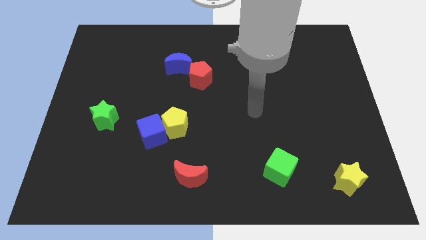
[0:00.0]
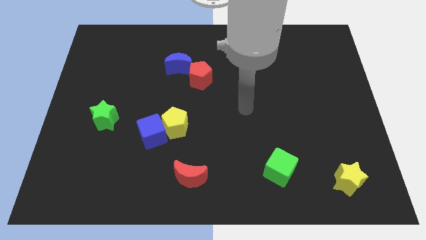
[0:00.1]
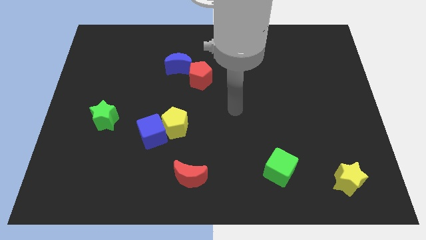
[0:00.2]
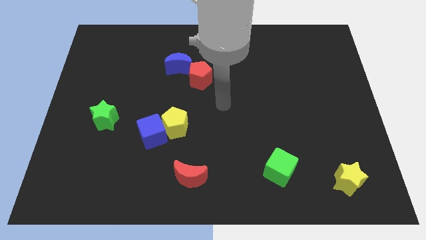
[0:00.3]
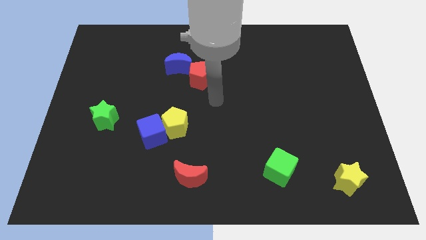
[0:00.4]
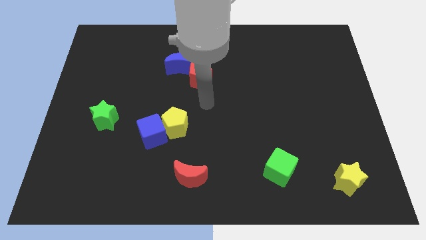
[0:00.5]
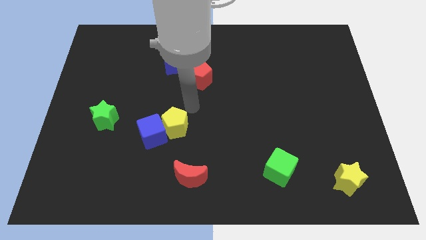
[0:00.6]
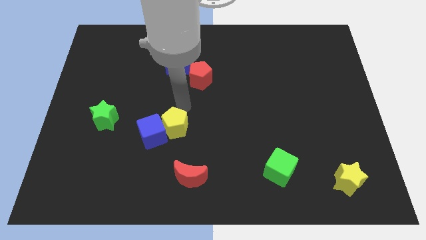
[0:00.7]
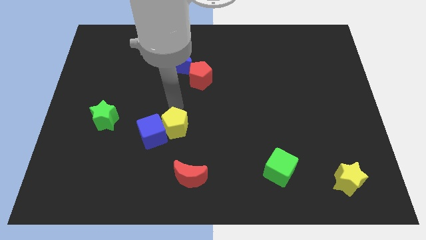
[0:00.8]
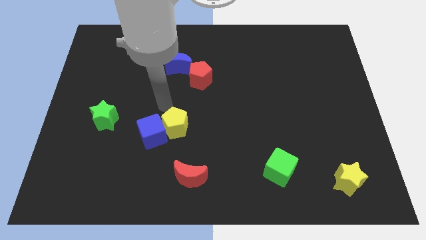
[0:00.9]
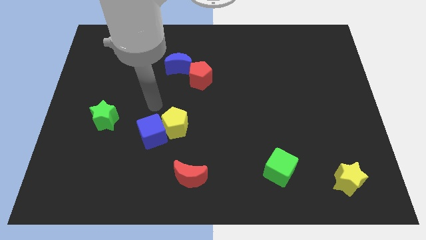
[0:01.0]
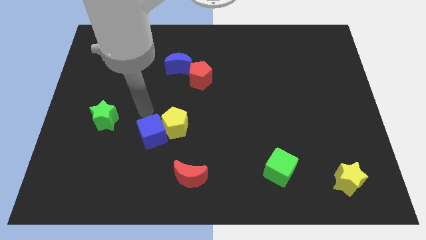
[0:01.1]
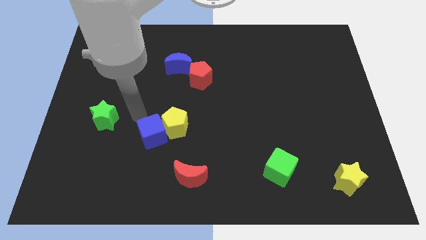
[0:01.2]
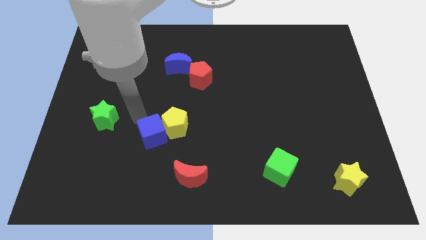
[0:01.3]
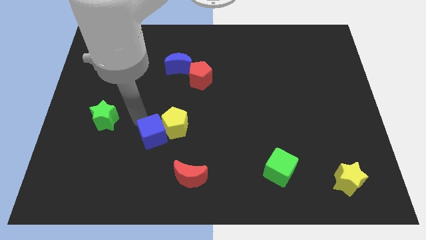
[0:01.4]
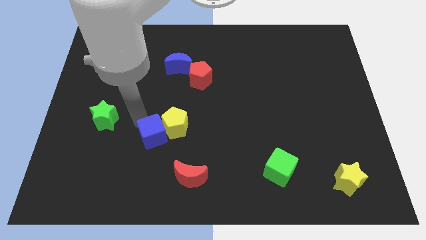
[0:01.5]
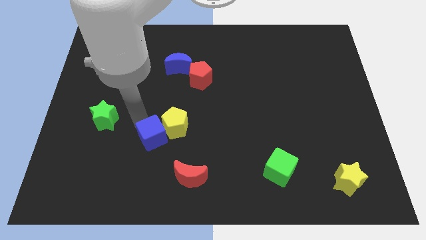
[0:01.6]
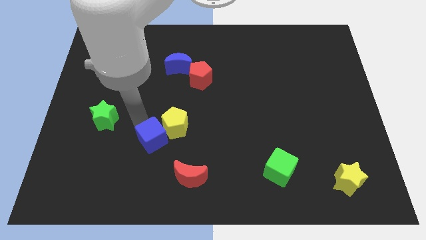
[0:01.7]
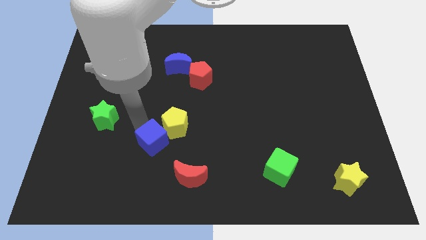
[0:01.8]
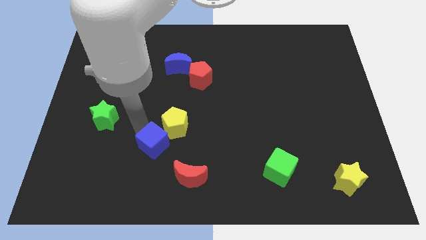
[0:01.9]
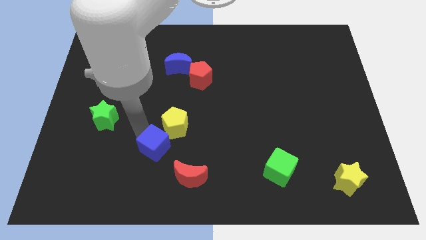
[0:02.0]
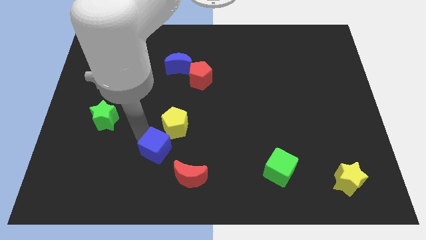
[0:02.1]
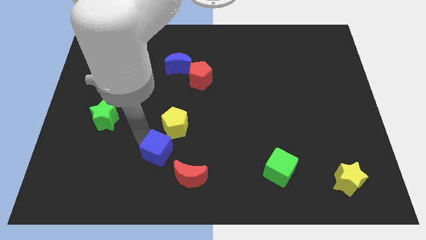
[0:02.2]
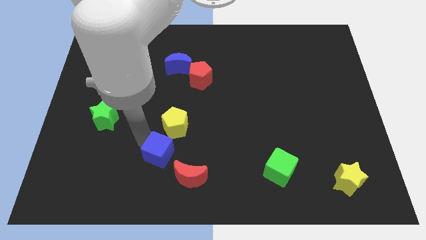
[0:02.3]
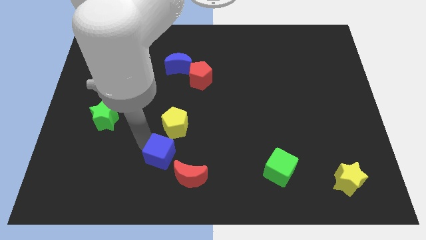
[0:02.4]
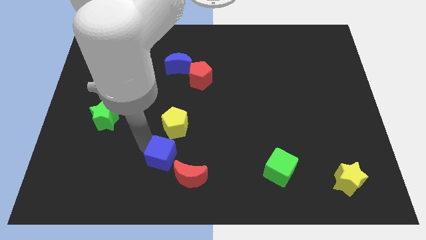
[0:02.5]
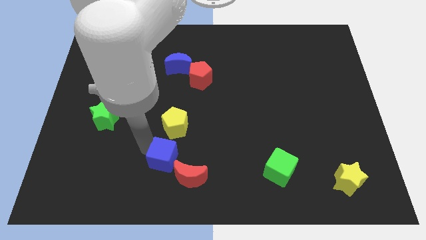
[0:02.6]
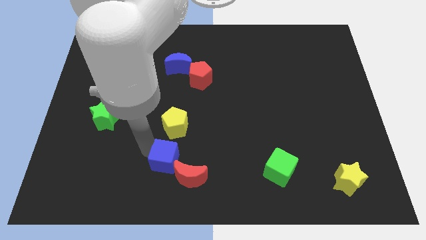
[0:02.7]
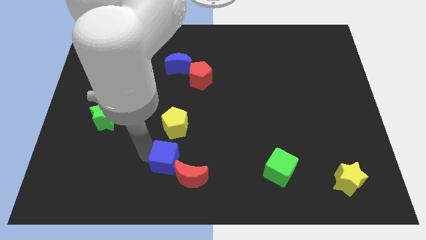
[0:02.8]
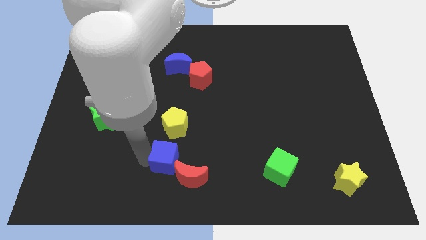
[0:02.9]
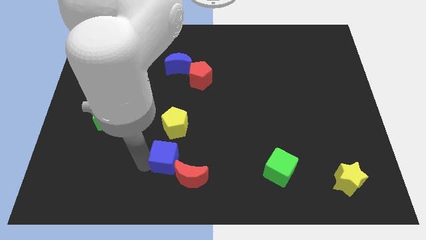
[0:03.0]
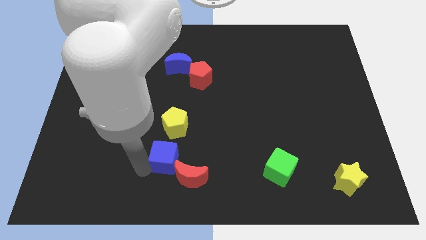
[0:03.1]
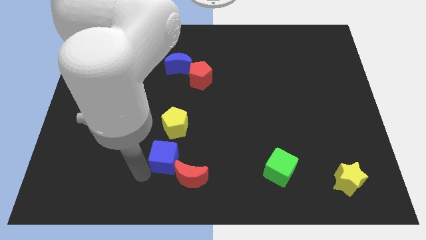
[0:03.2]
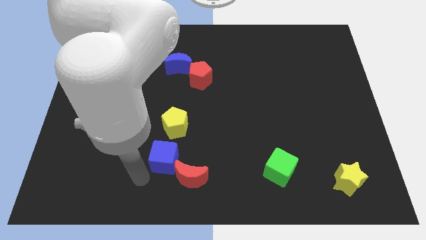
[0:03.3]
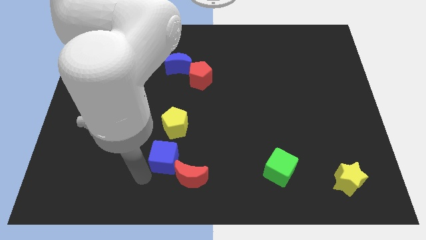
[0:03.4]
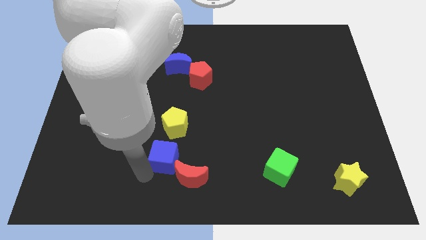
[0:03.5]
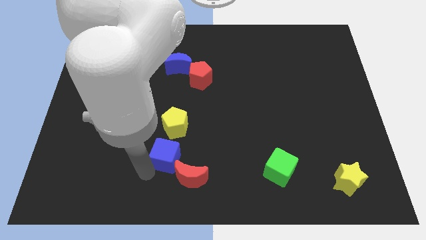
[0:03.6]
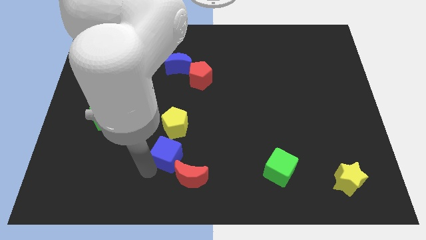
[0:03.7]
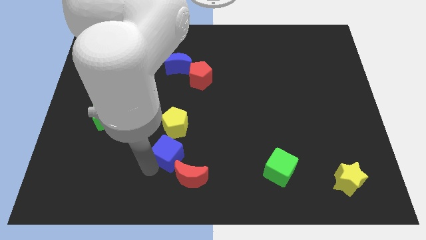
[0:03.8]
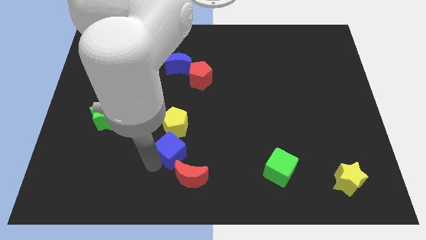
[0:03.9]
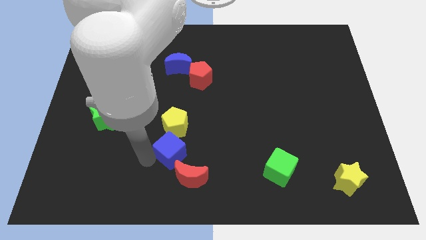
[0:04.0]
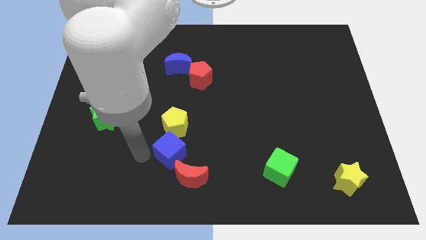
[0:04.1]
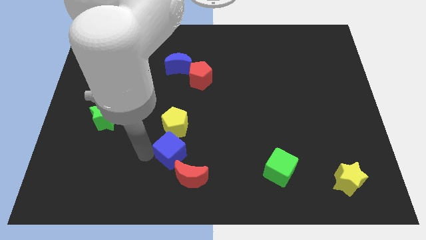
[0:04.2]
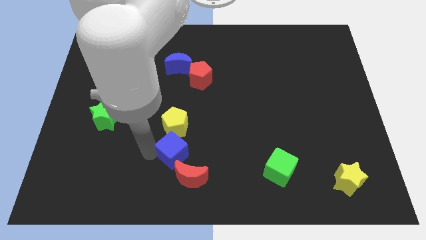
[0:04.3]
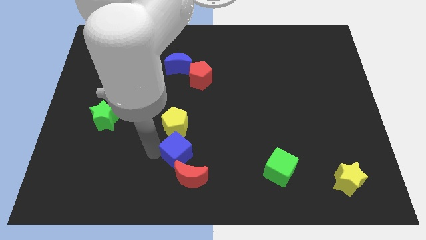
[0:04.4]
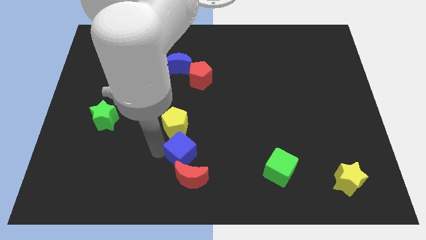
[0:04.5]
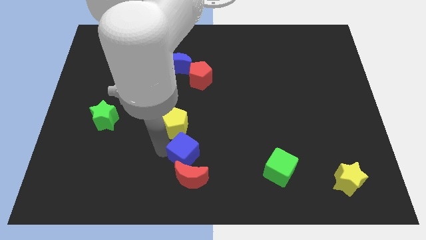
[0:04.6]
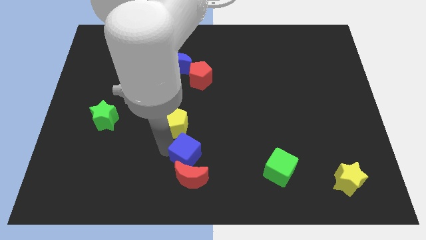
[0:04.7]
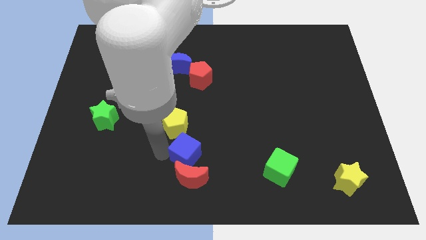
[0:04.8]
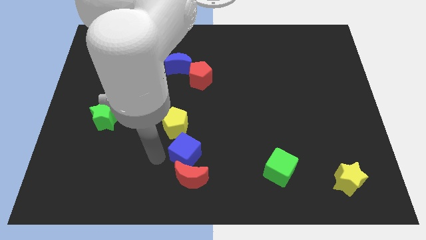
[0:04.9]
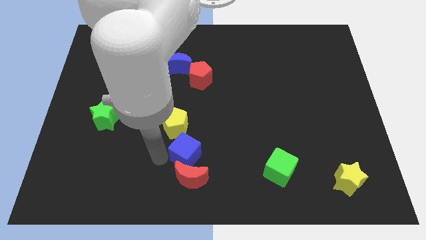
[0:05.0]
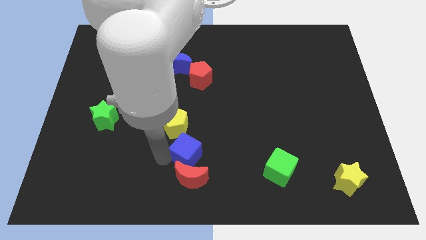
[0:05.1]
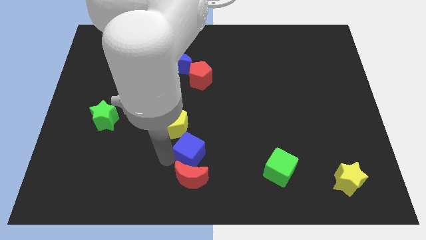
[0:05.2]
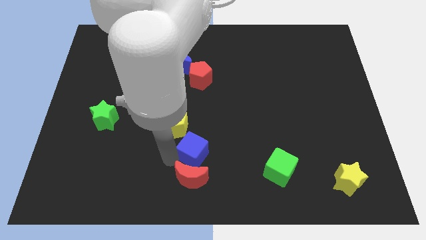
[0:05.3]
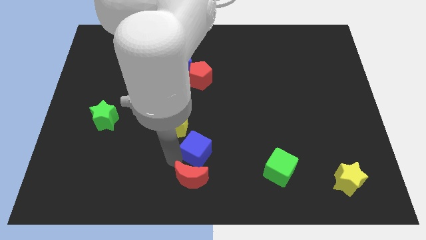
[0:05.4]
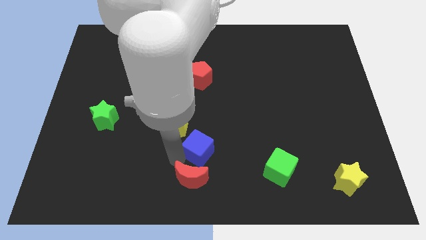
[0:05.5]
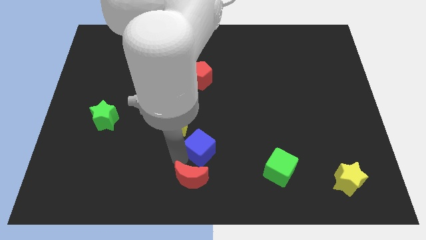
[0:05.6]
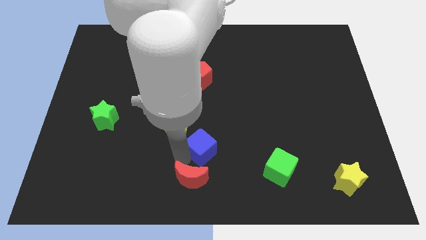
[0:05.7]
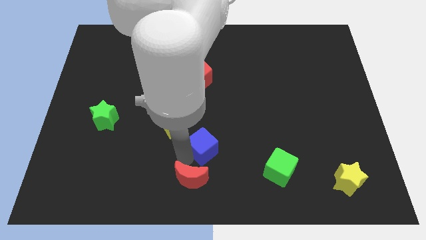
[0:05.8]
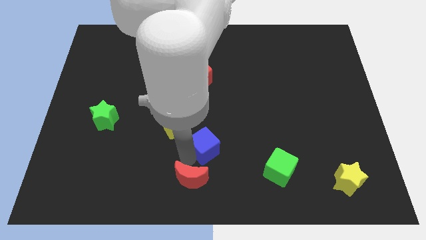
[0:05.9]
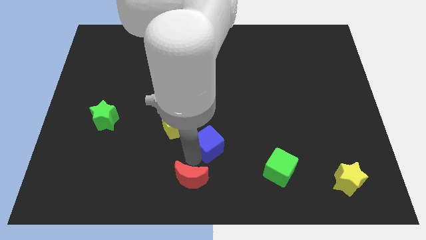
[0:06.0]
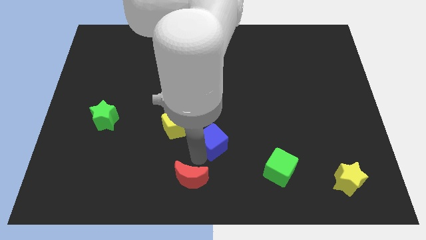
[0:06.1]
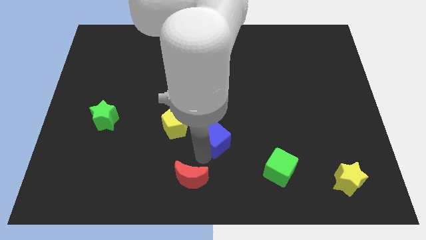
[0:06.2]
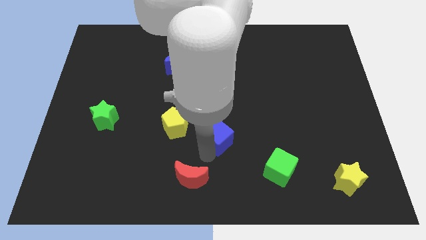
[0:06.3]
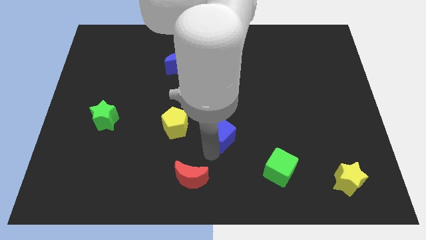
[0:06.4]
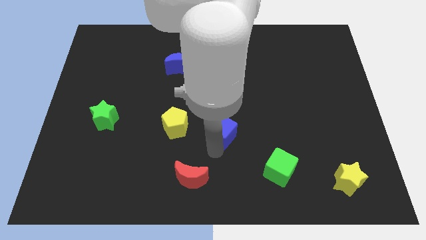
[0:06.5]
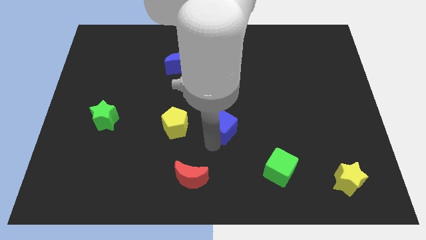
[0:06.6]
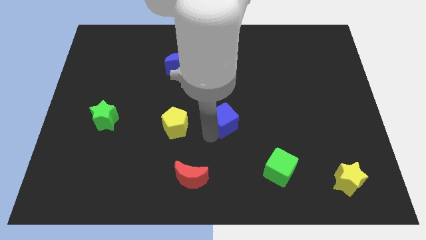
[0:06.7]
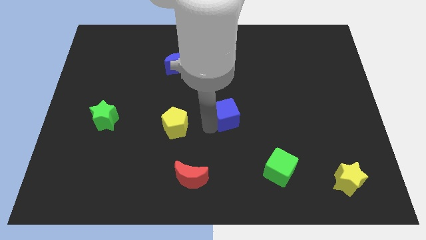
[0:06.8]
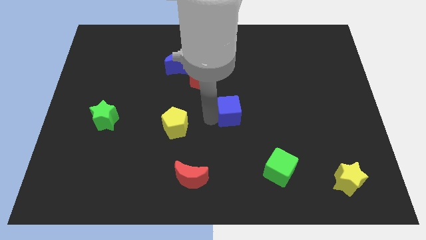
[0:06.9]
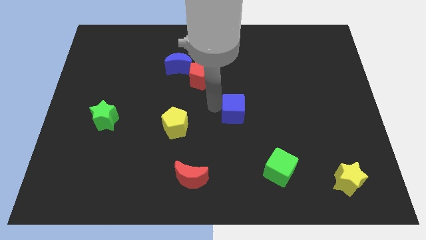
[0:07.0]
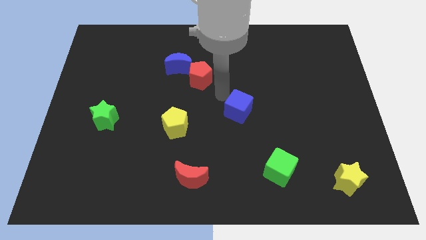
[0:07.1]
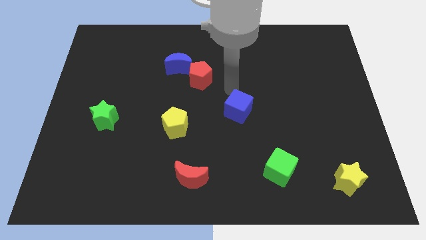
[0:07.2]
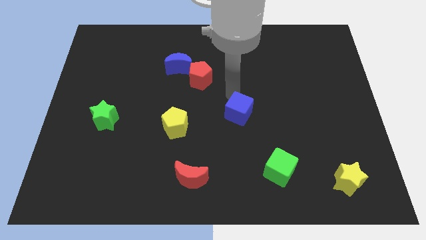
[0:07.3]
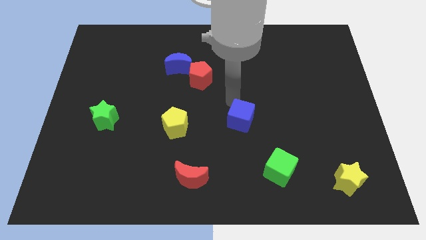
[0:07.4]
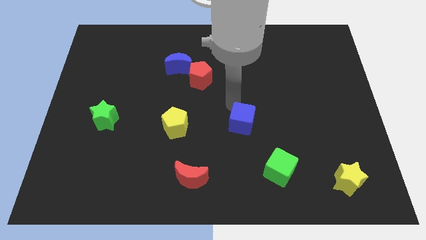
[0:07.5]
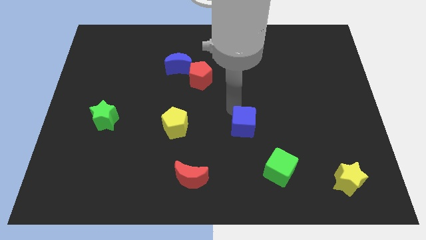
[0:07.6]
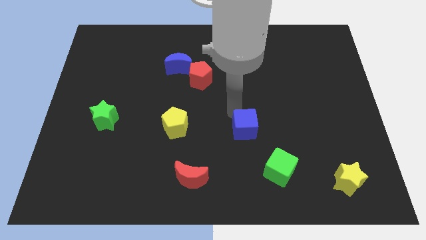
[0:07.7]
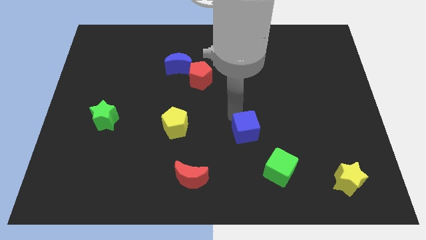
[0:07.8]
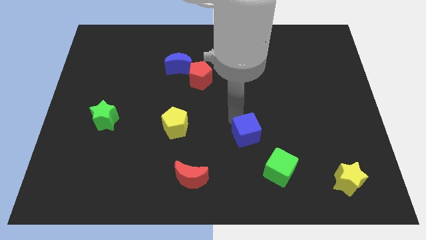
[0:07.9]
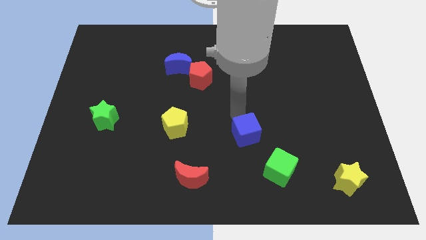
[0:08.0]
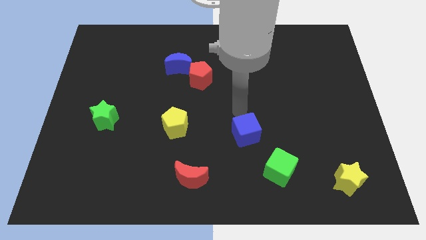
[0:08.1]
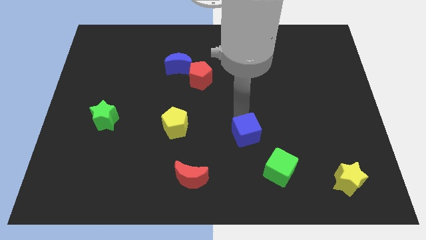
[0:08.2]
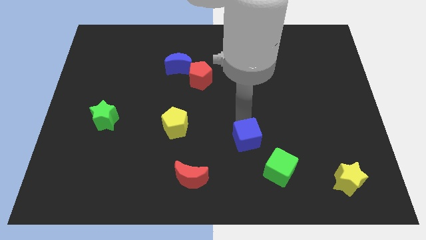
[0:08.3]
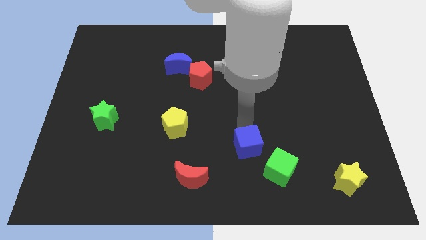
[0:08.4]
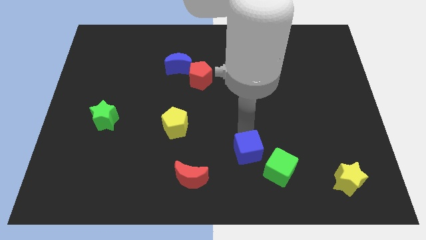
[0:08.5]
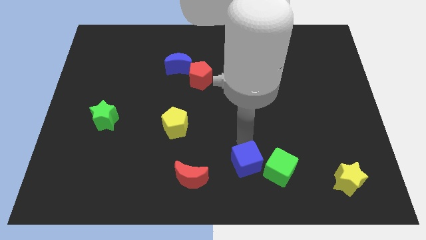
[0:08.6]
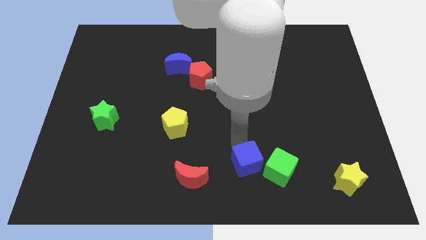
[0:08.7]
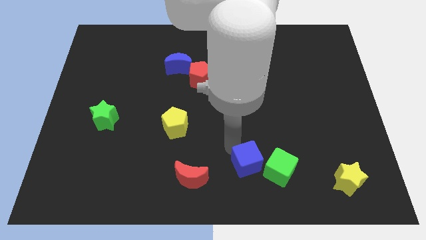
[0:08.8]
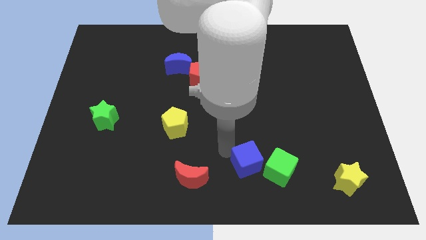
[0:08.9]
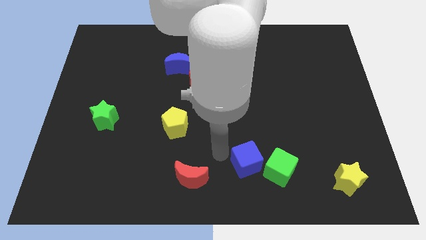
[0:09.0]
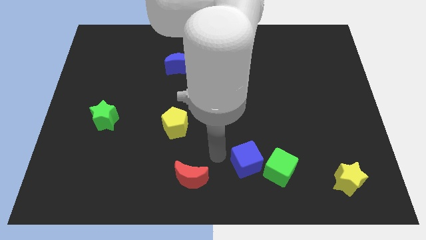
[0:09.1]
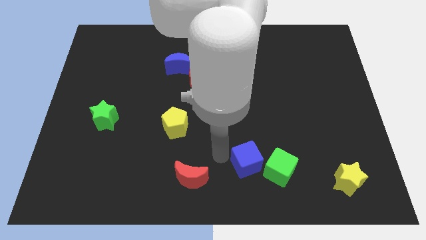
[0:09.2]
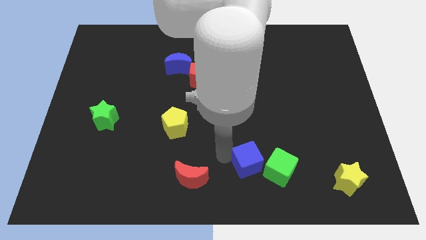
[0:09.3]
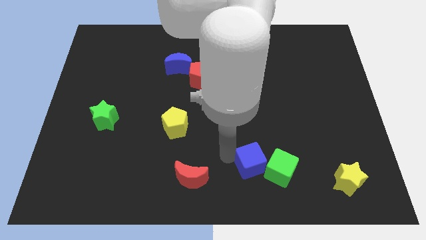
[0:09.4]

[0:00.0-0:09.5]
push the blue cube towards the green cube
